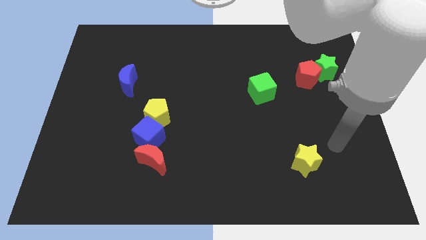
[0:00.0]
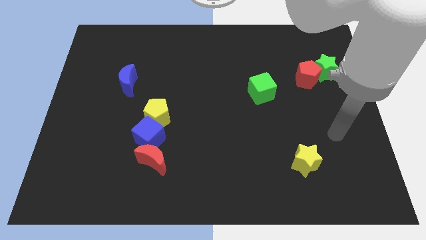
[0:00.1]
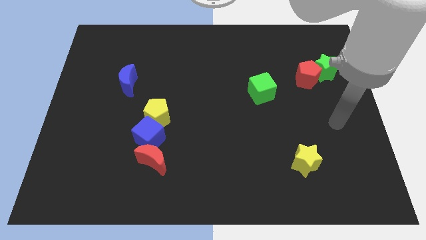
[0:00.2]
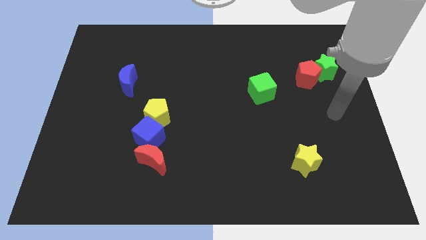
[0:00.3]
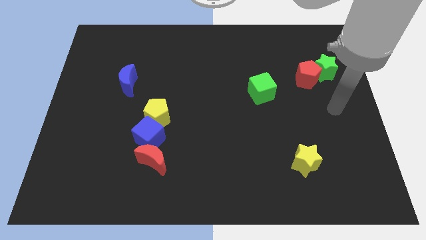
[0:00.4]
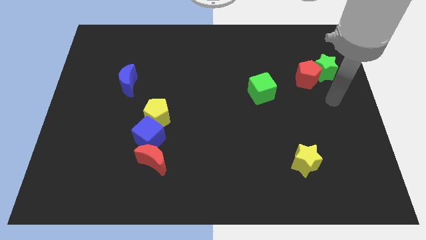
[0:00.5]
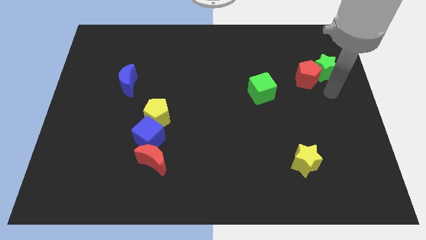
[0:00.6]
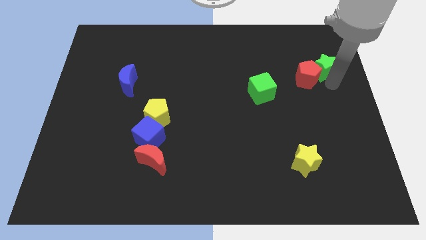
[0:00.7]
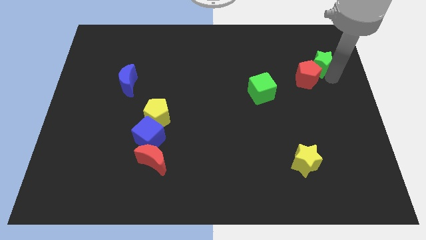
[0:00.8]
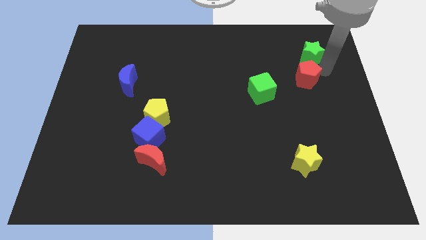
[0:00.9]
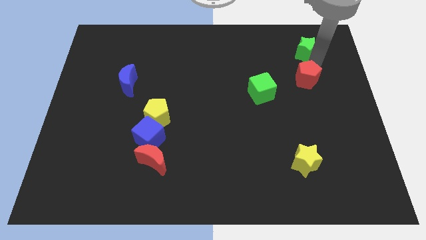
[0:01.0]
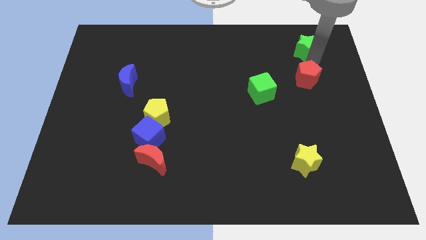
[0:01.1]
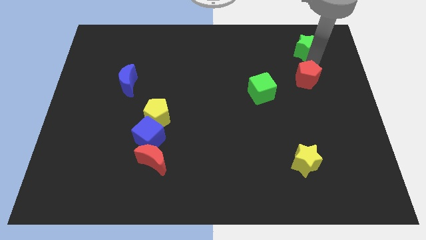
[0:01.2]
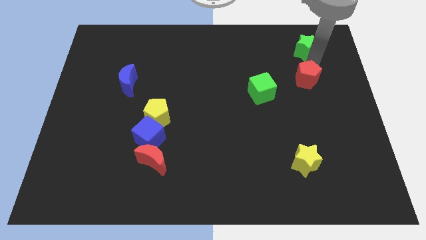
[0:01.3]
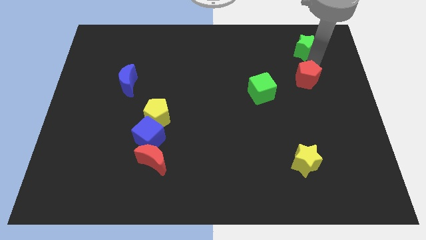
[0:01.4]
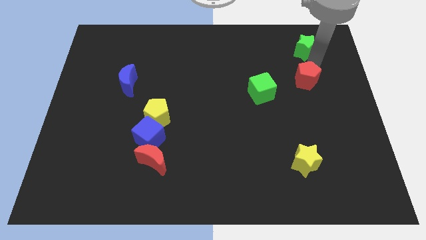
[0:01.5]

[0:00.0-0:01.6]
pull the red pentagon apart from the green star

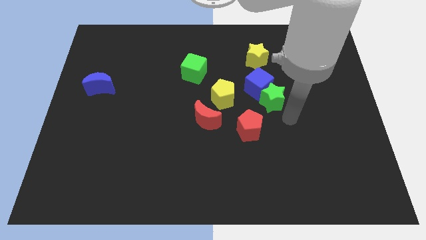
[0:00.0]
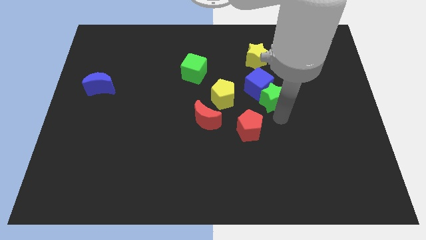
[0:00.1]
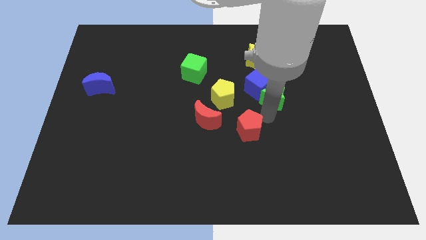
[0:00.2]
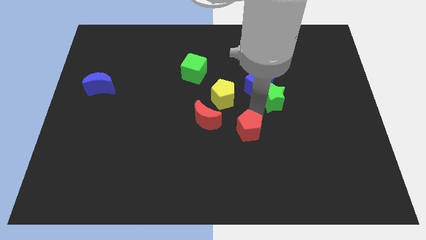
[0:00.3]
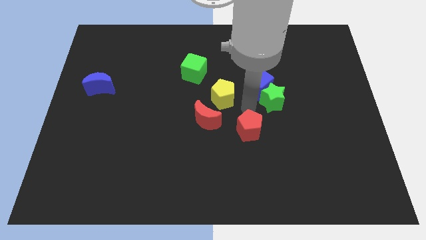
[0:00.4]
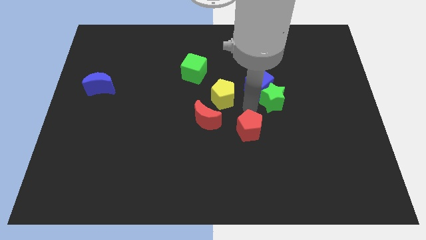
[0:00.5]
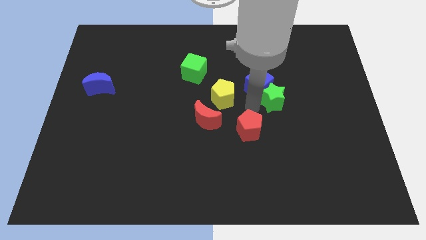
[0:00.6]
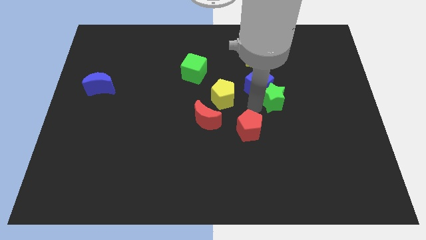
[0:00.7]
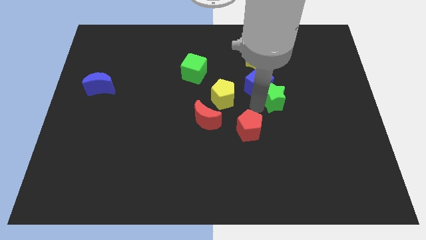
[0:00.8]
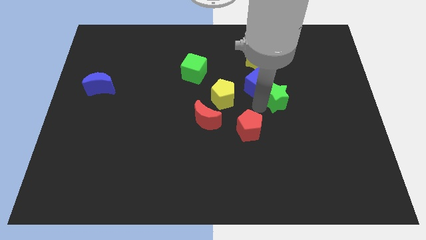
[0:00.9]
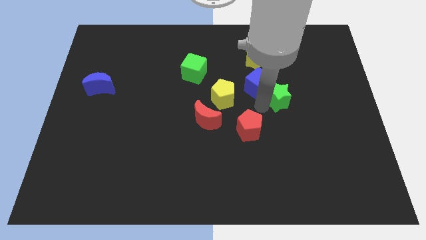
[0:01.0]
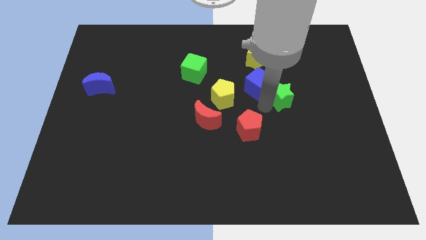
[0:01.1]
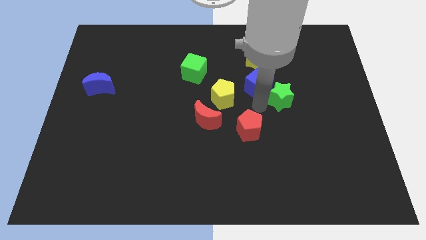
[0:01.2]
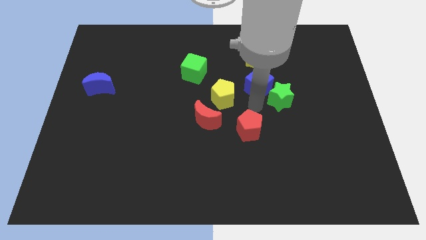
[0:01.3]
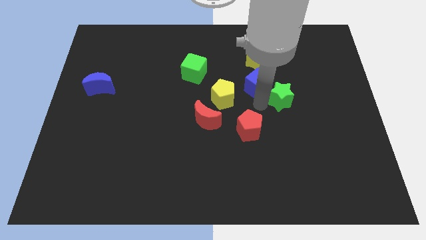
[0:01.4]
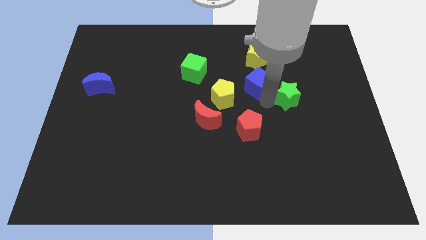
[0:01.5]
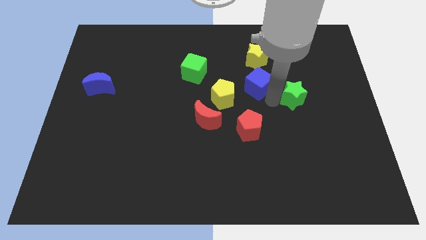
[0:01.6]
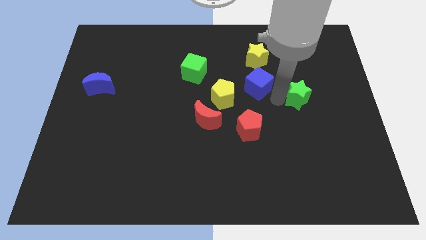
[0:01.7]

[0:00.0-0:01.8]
pull the green star apart from the blue cube and red pentagon

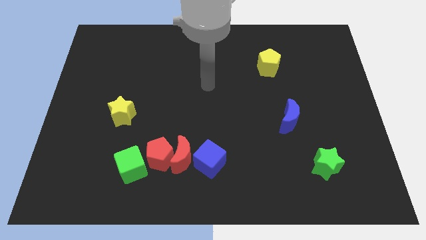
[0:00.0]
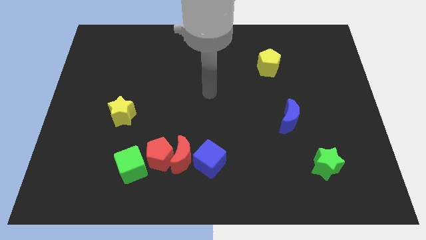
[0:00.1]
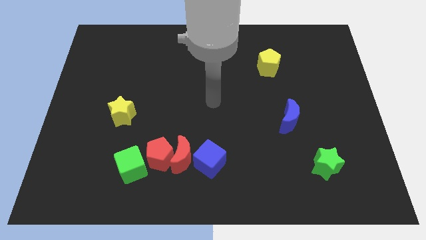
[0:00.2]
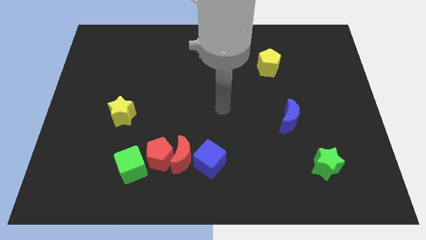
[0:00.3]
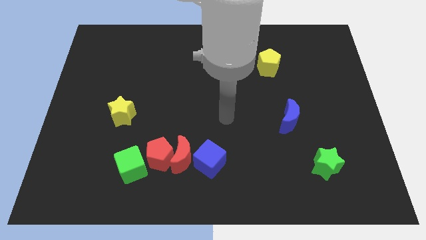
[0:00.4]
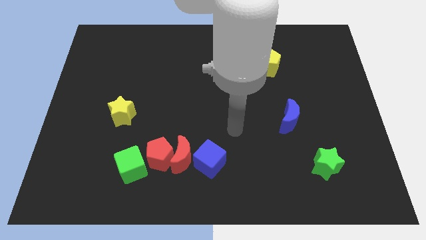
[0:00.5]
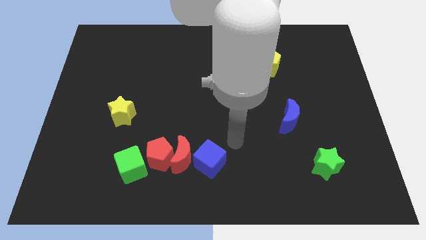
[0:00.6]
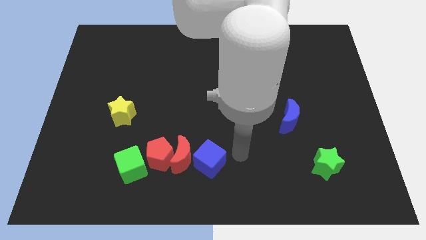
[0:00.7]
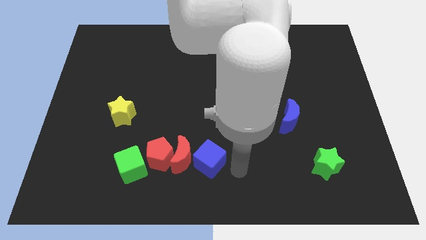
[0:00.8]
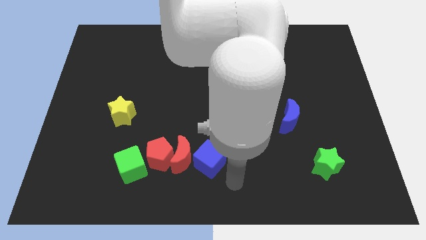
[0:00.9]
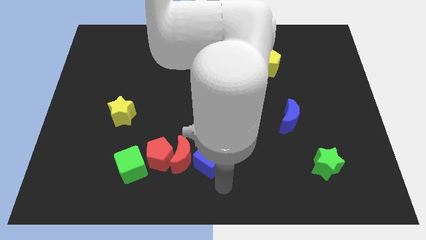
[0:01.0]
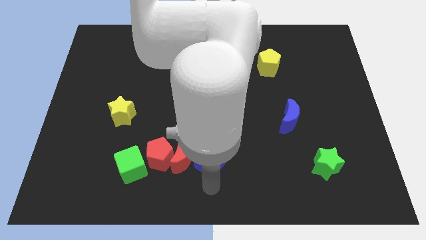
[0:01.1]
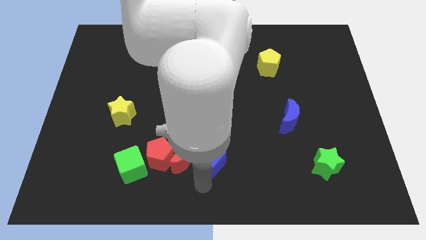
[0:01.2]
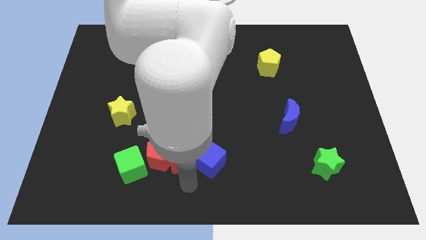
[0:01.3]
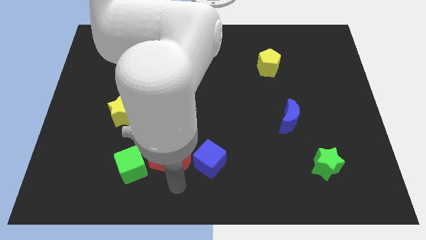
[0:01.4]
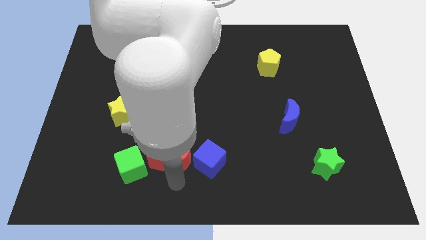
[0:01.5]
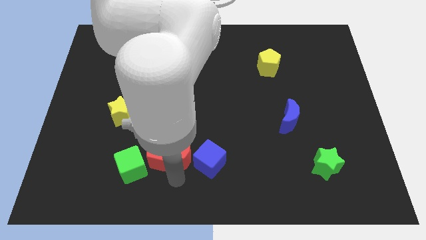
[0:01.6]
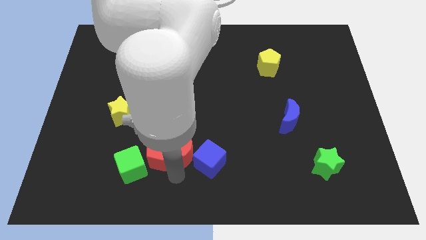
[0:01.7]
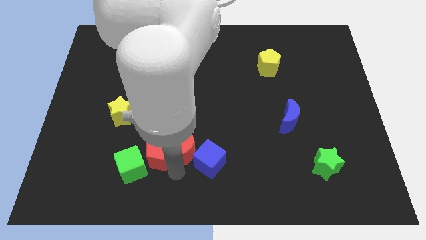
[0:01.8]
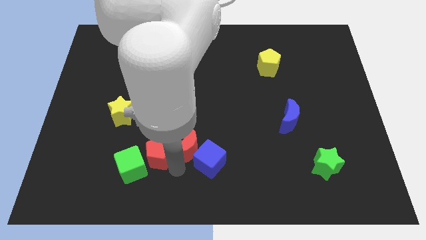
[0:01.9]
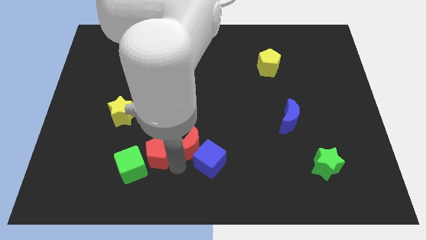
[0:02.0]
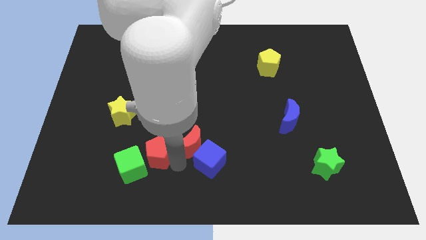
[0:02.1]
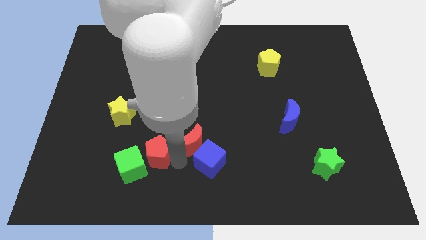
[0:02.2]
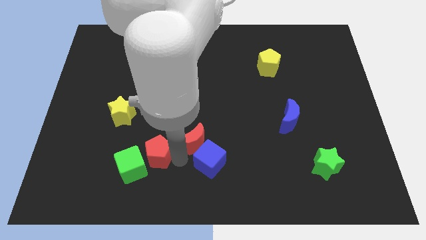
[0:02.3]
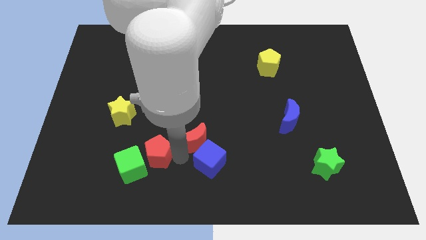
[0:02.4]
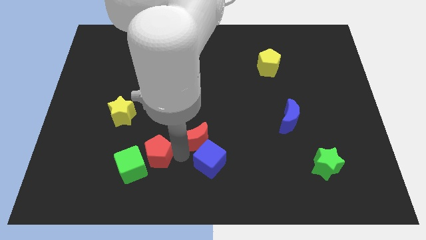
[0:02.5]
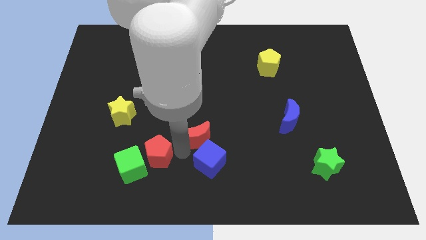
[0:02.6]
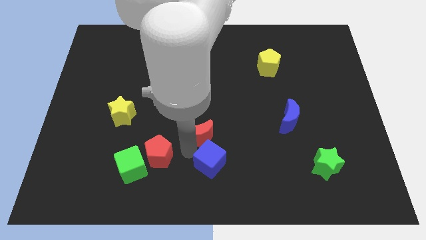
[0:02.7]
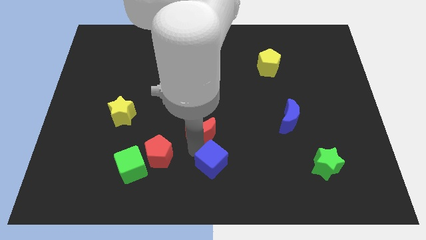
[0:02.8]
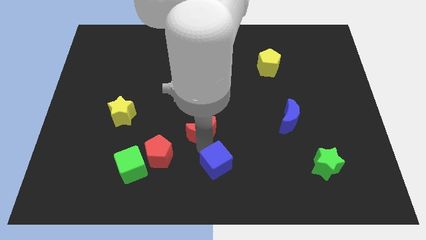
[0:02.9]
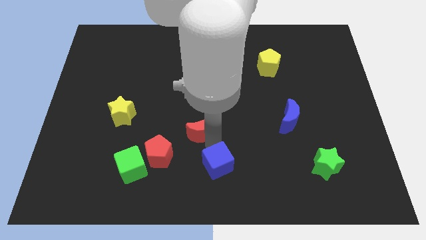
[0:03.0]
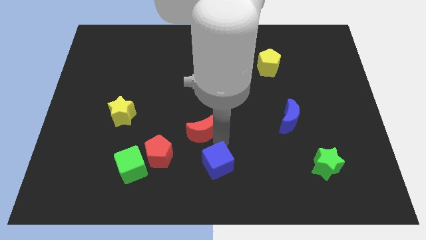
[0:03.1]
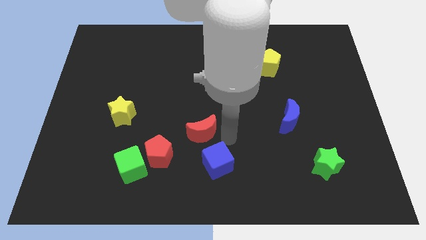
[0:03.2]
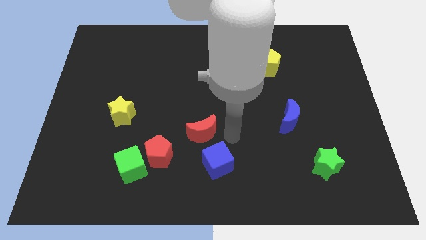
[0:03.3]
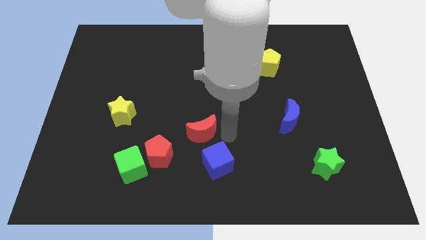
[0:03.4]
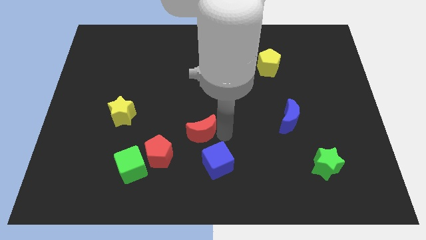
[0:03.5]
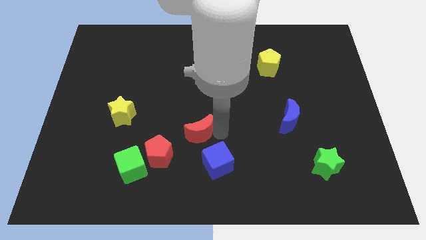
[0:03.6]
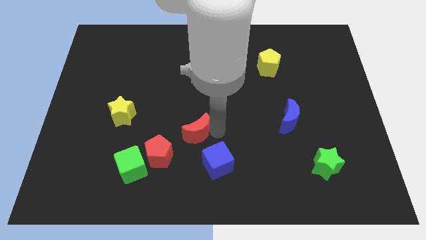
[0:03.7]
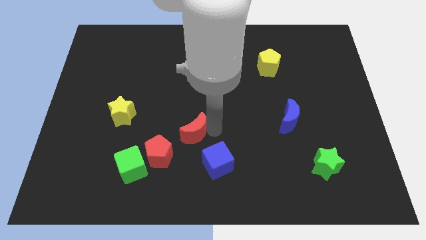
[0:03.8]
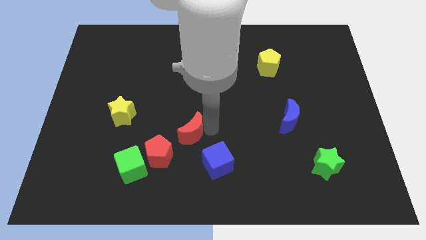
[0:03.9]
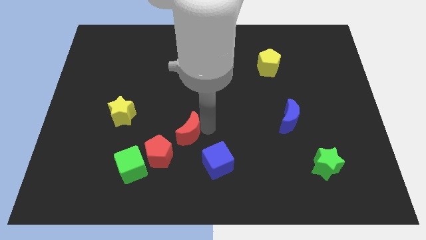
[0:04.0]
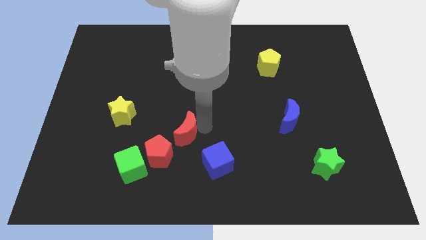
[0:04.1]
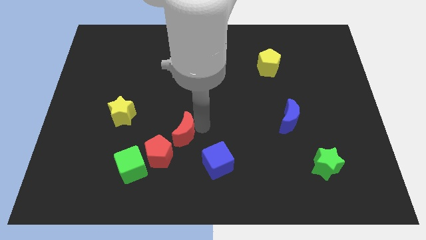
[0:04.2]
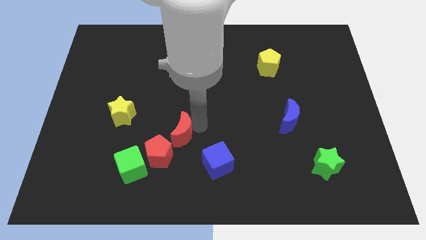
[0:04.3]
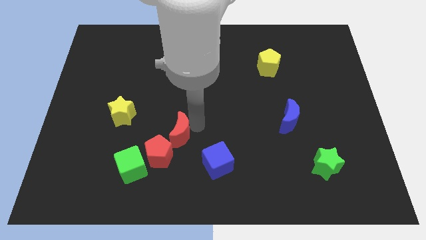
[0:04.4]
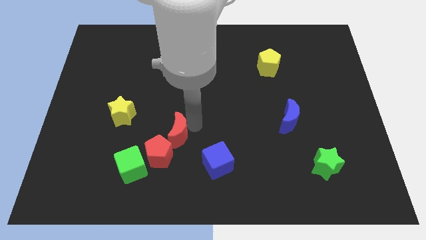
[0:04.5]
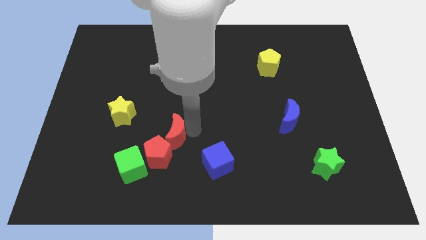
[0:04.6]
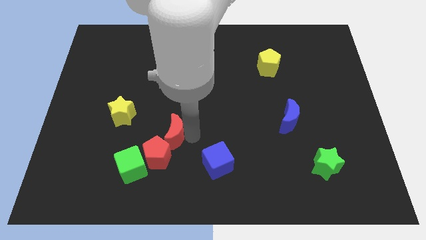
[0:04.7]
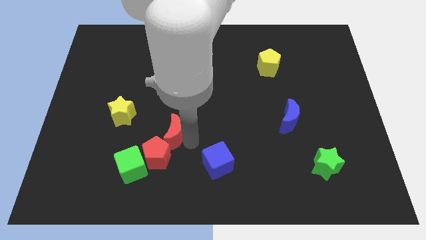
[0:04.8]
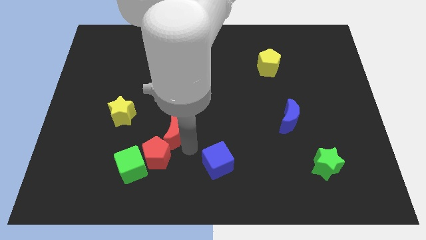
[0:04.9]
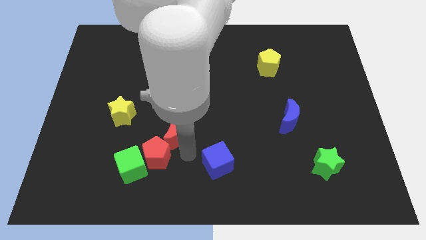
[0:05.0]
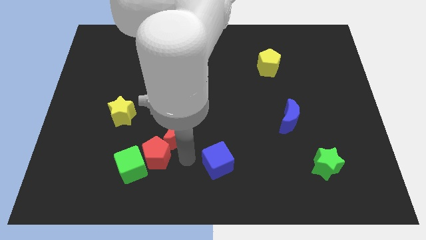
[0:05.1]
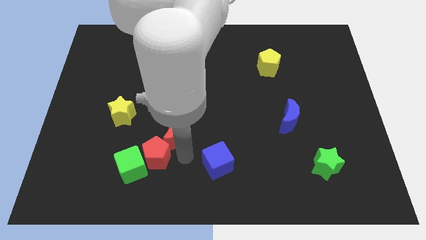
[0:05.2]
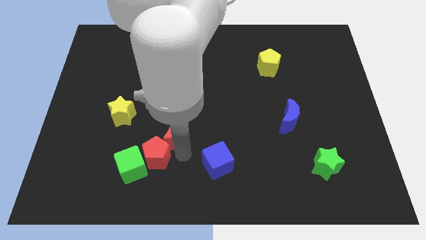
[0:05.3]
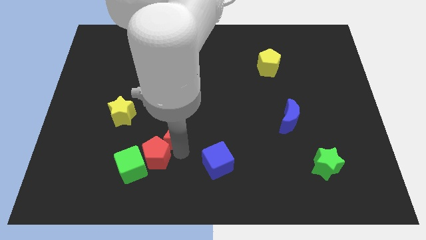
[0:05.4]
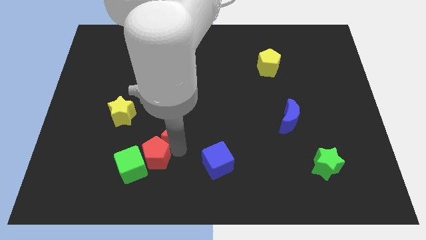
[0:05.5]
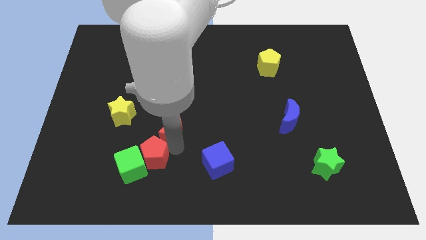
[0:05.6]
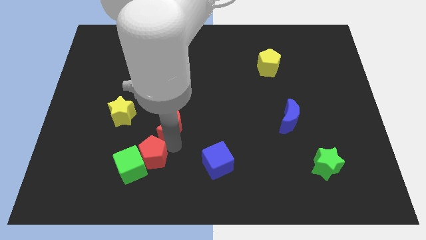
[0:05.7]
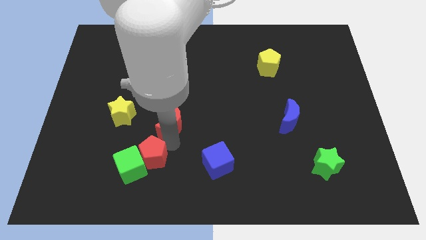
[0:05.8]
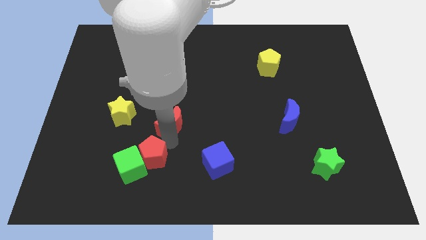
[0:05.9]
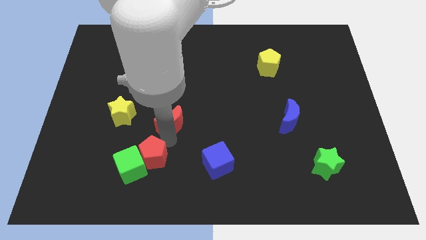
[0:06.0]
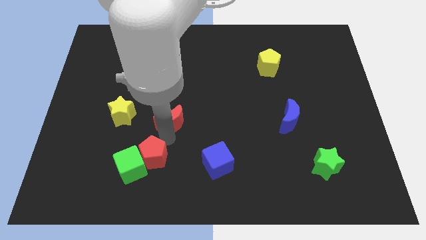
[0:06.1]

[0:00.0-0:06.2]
separate the red moon from the red pentagon and blue cube
